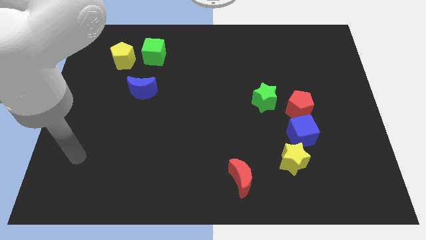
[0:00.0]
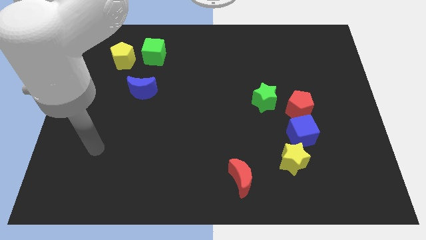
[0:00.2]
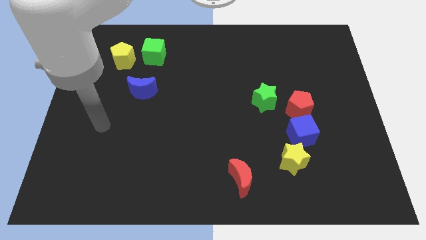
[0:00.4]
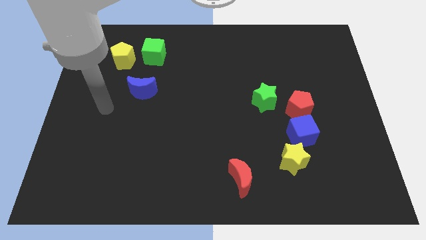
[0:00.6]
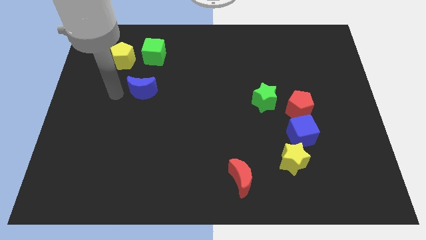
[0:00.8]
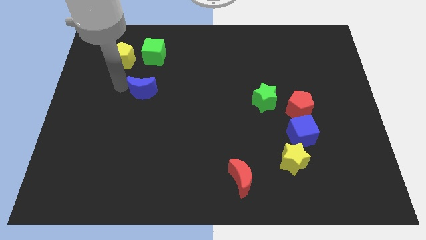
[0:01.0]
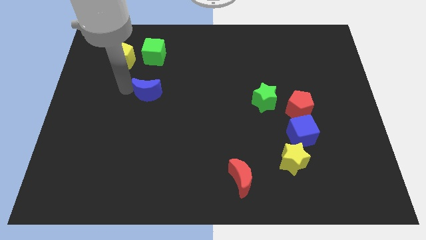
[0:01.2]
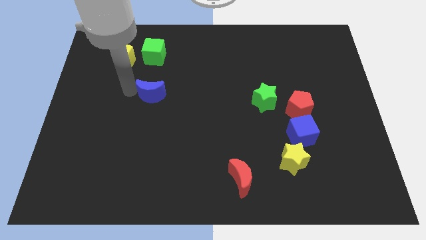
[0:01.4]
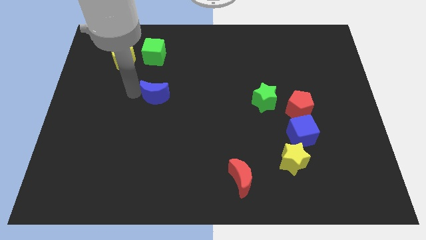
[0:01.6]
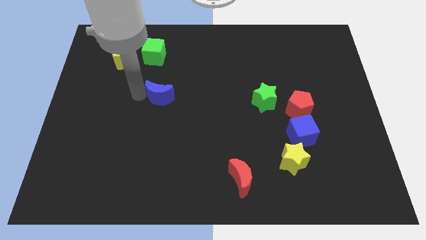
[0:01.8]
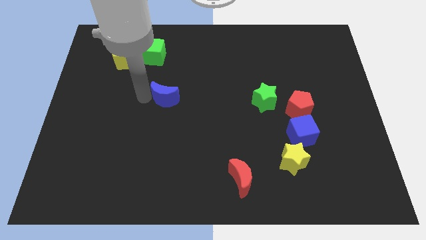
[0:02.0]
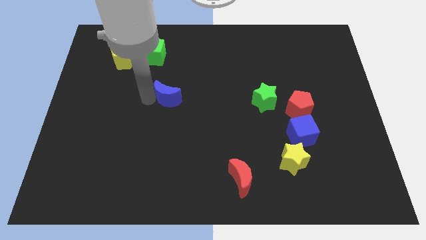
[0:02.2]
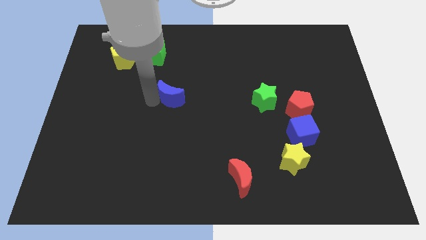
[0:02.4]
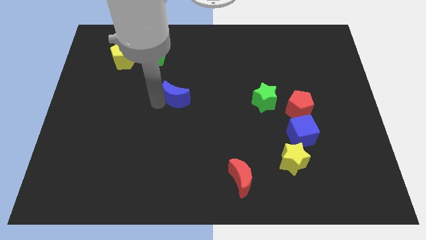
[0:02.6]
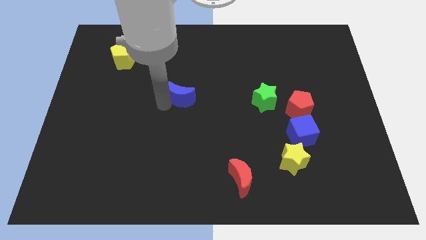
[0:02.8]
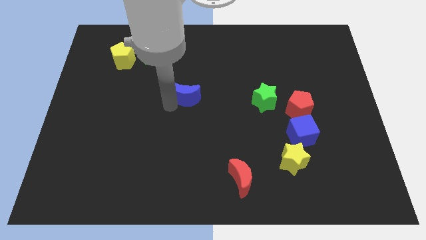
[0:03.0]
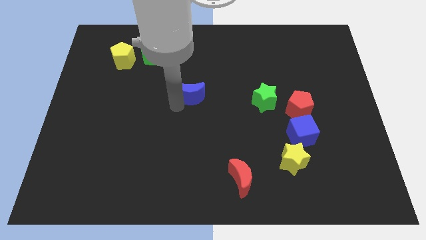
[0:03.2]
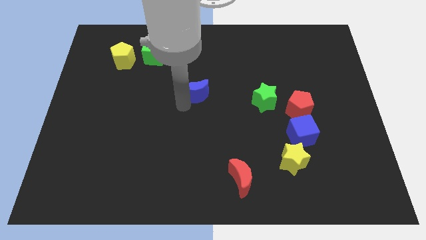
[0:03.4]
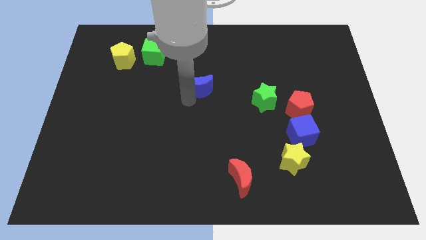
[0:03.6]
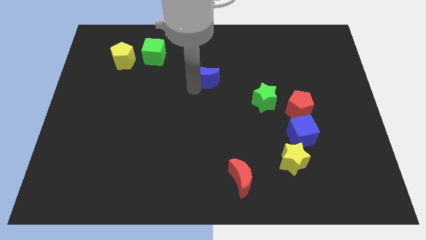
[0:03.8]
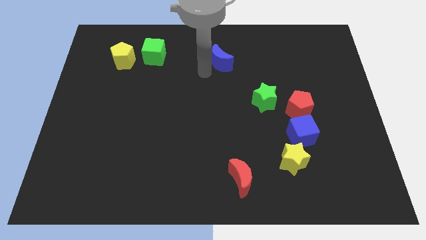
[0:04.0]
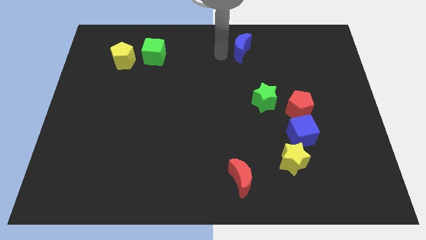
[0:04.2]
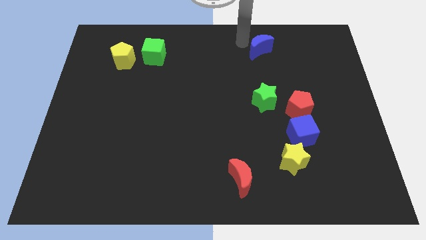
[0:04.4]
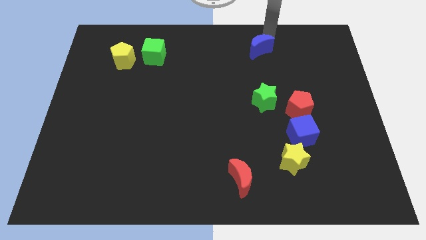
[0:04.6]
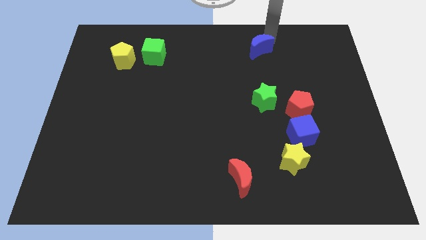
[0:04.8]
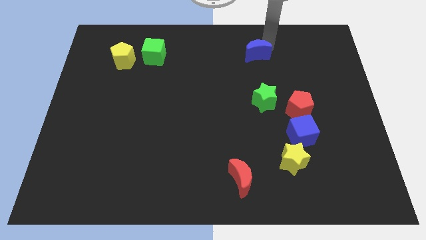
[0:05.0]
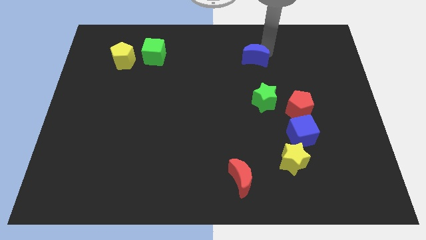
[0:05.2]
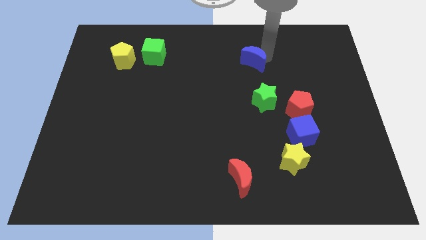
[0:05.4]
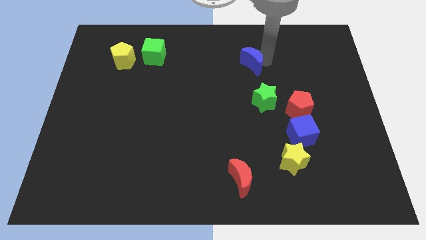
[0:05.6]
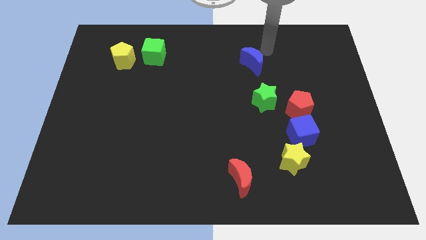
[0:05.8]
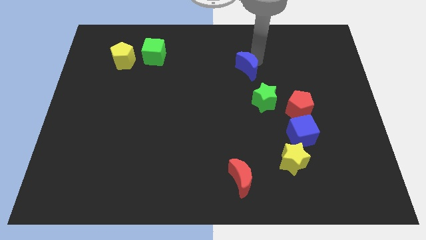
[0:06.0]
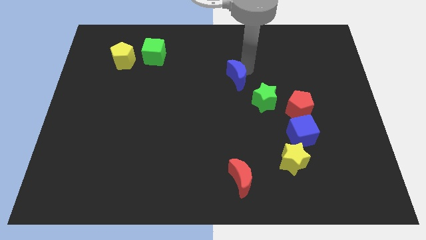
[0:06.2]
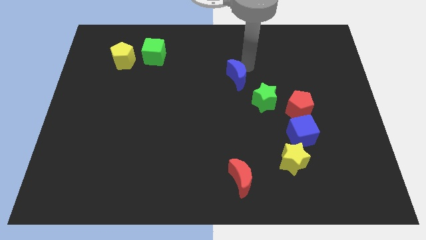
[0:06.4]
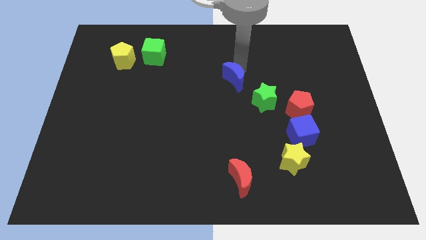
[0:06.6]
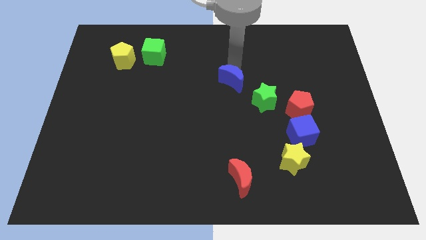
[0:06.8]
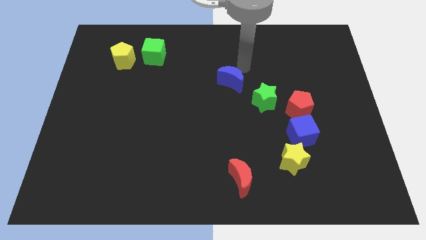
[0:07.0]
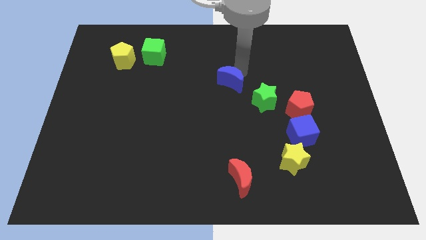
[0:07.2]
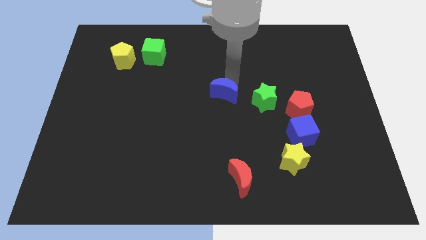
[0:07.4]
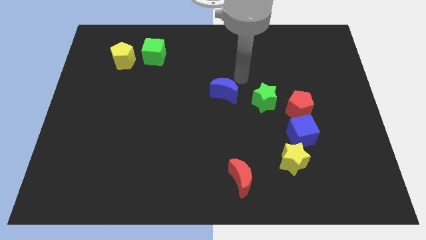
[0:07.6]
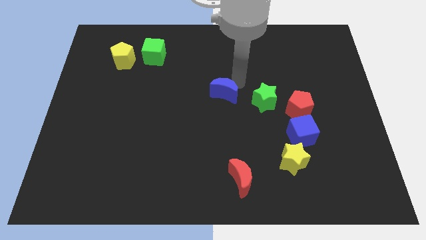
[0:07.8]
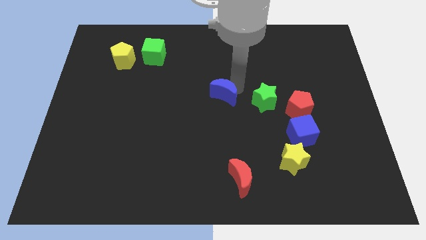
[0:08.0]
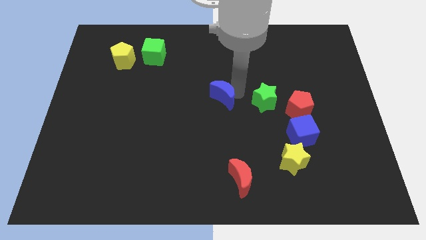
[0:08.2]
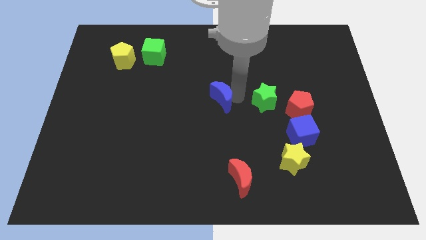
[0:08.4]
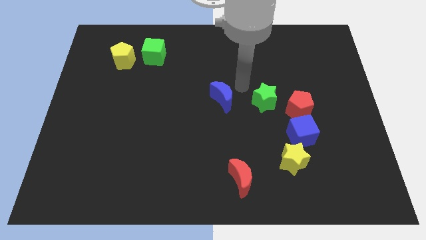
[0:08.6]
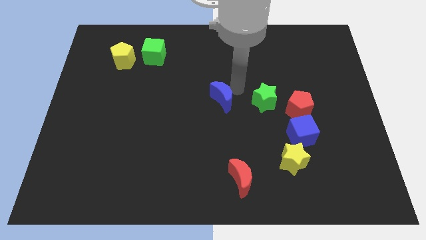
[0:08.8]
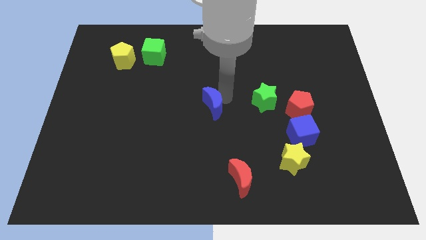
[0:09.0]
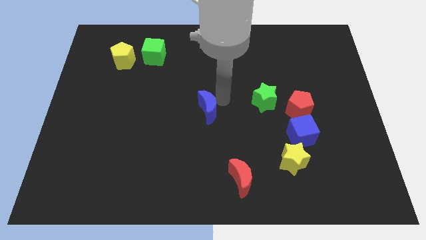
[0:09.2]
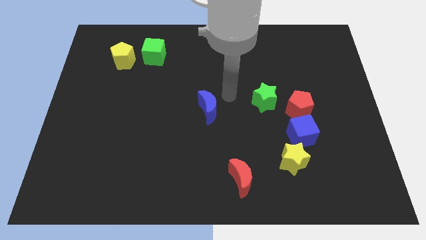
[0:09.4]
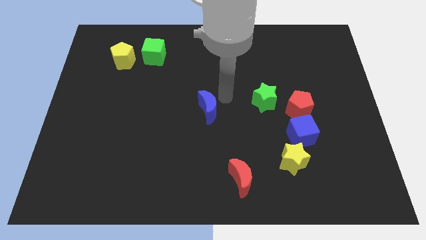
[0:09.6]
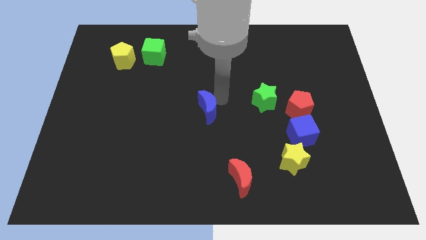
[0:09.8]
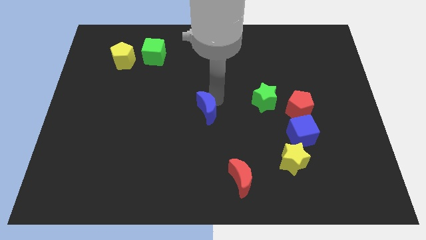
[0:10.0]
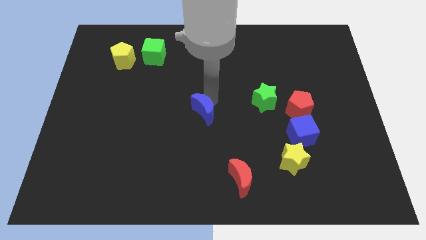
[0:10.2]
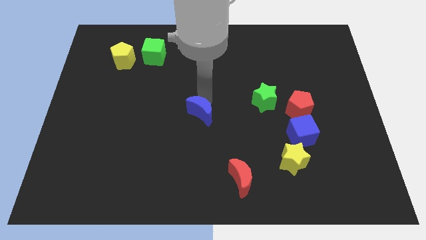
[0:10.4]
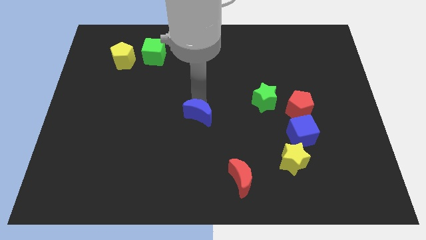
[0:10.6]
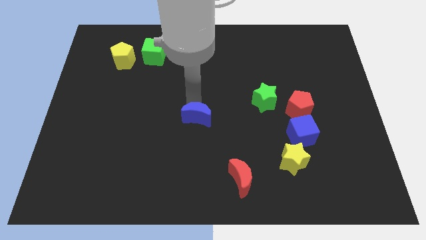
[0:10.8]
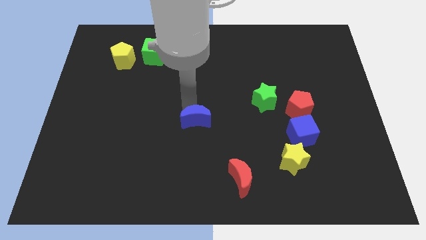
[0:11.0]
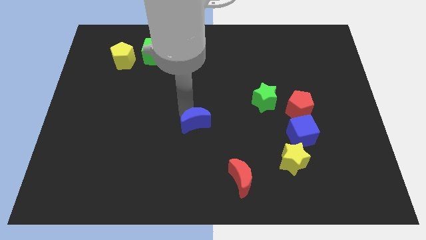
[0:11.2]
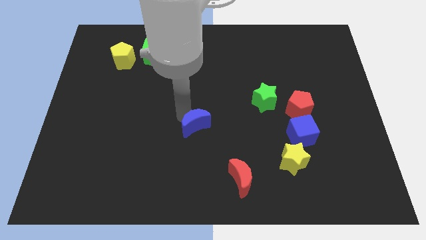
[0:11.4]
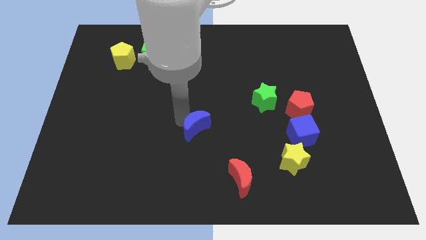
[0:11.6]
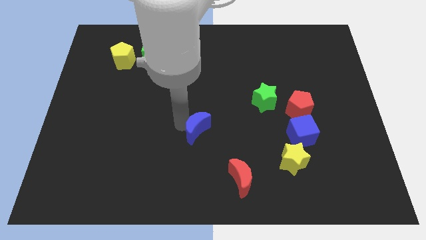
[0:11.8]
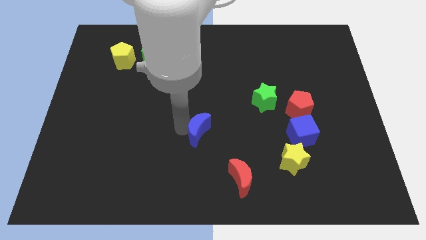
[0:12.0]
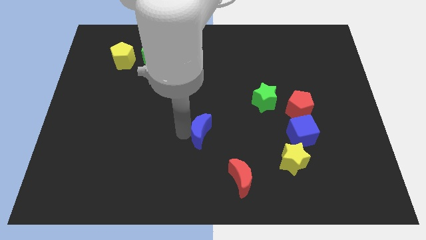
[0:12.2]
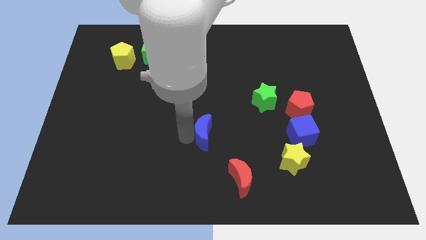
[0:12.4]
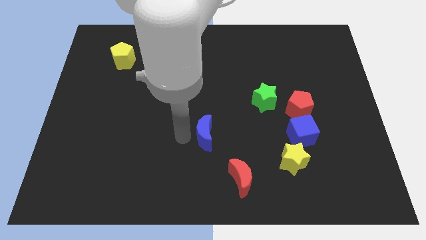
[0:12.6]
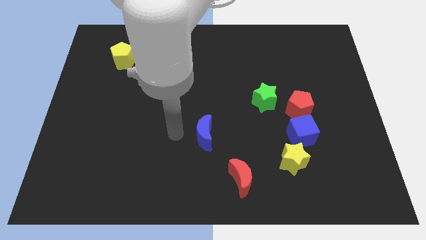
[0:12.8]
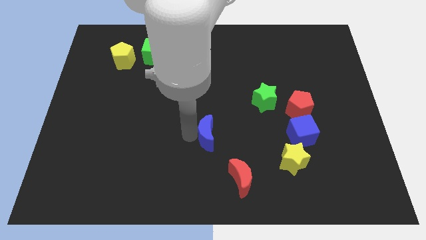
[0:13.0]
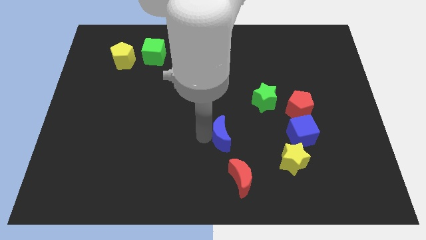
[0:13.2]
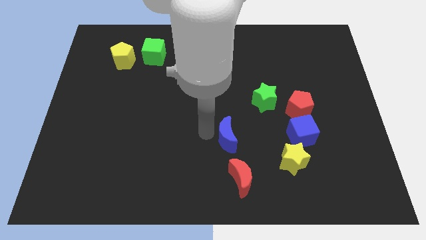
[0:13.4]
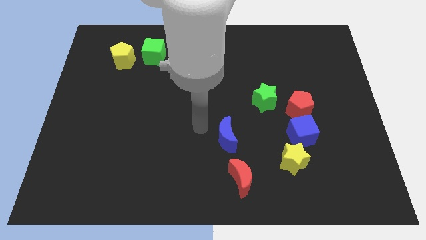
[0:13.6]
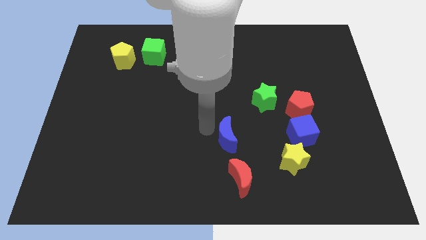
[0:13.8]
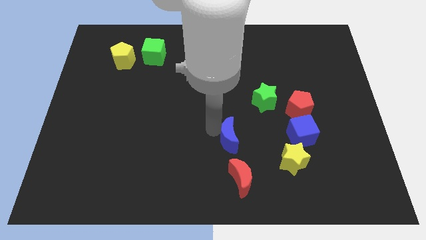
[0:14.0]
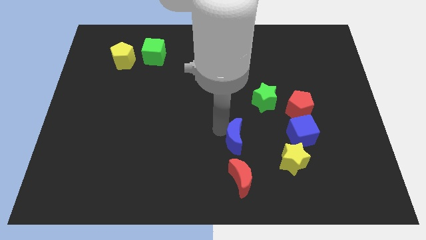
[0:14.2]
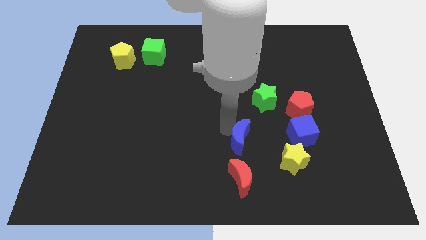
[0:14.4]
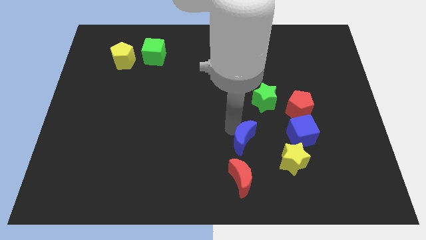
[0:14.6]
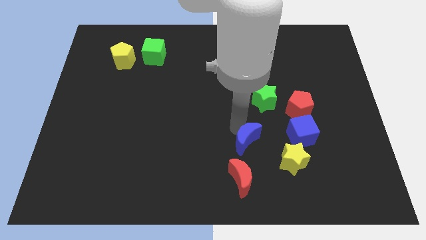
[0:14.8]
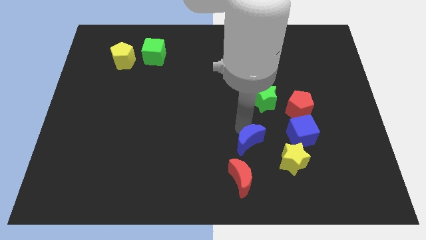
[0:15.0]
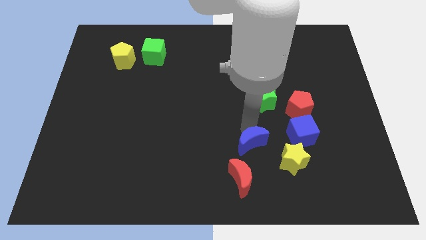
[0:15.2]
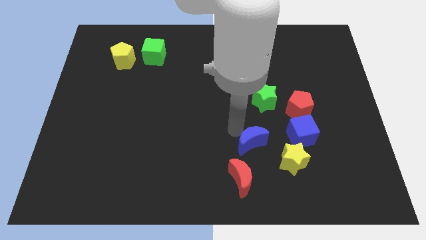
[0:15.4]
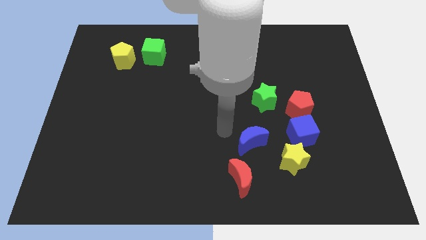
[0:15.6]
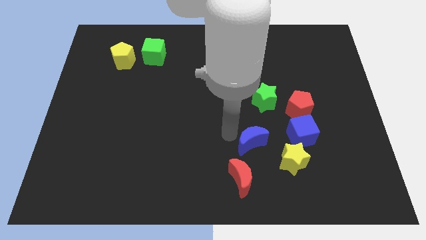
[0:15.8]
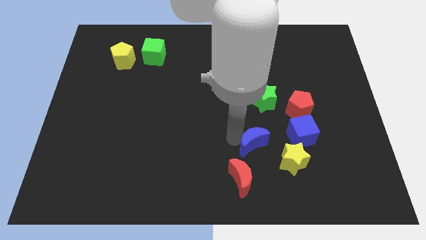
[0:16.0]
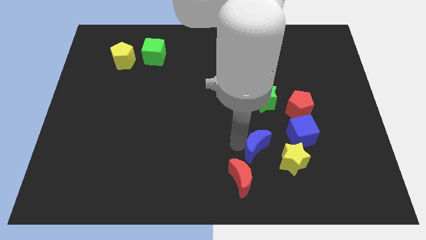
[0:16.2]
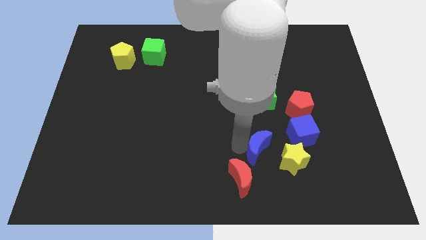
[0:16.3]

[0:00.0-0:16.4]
slide the blue moon to the bottom left side of the blue cube
